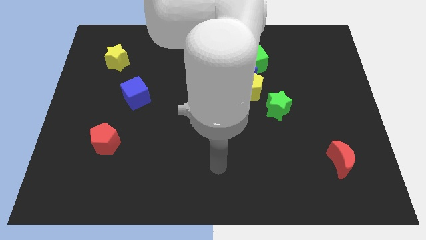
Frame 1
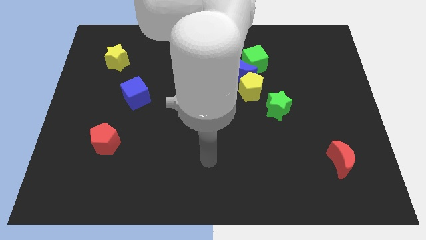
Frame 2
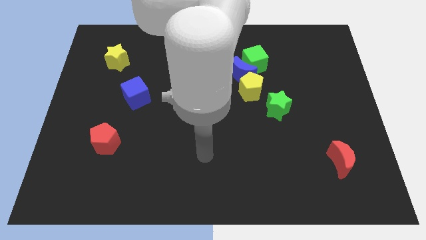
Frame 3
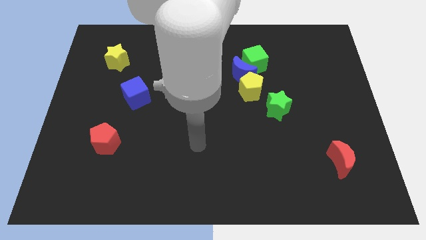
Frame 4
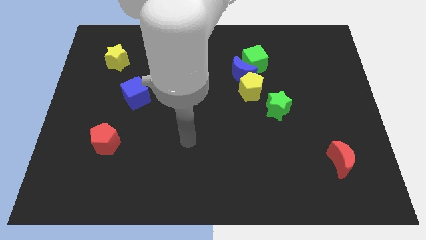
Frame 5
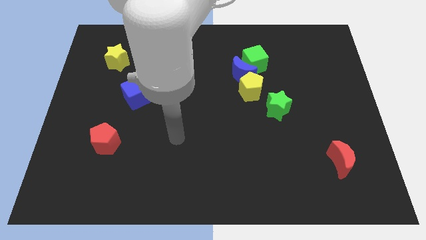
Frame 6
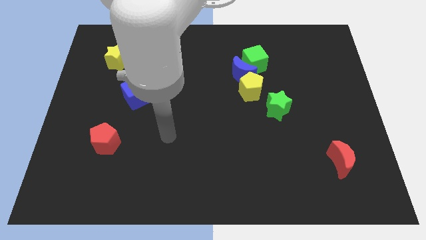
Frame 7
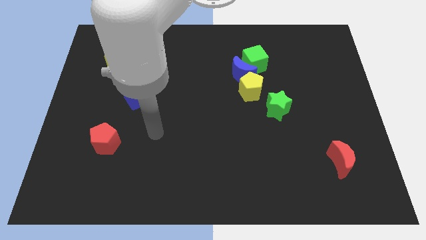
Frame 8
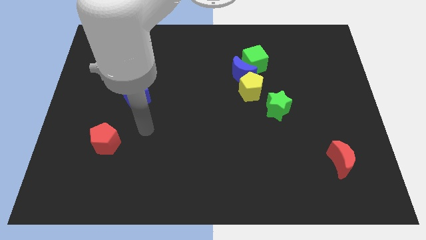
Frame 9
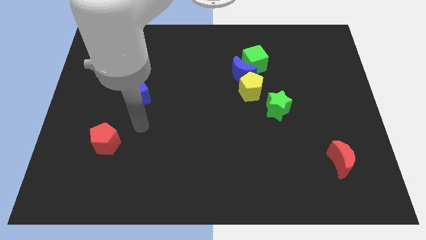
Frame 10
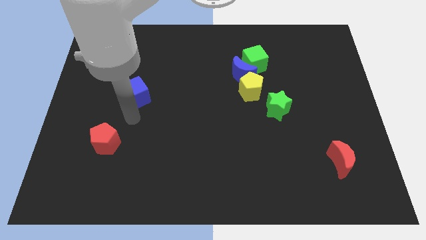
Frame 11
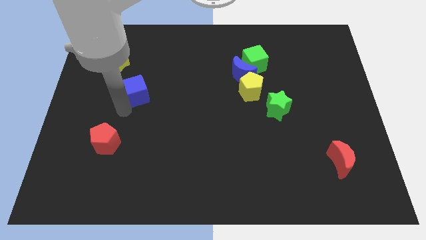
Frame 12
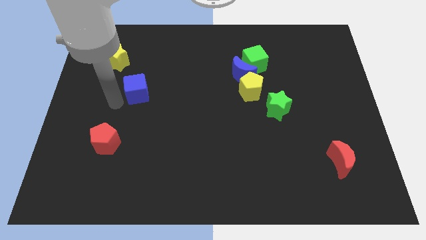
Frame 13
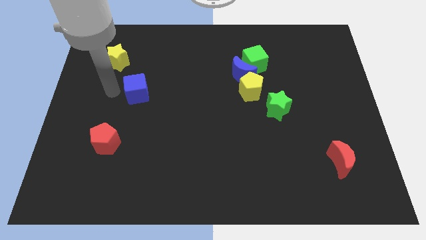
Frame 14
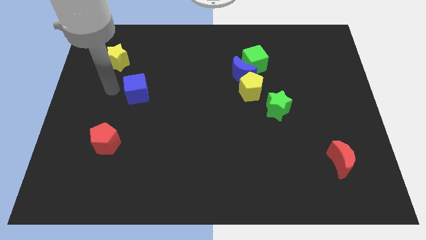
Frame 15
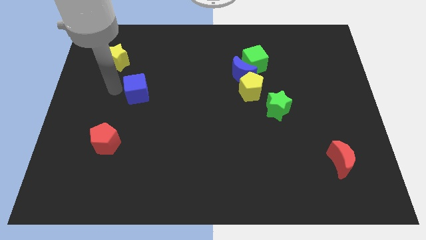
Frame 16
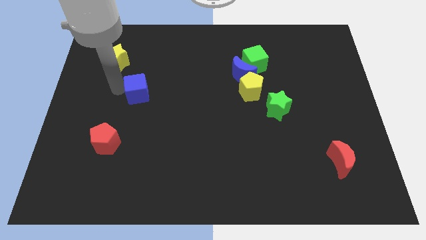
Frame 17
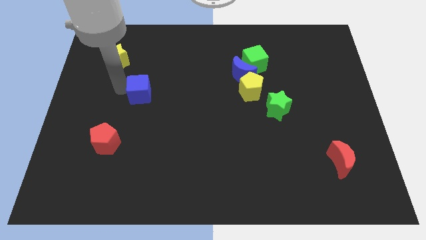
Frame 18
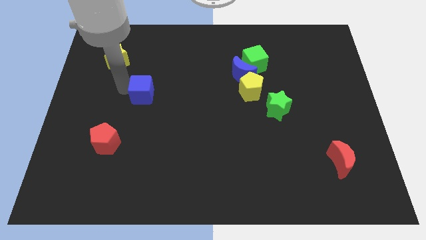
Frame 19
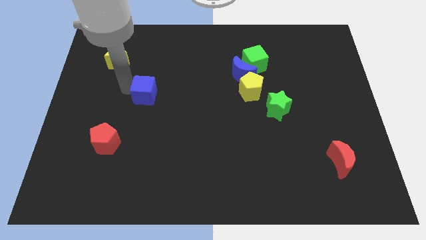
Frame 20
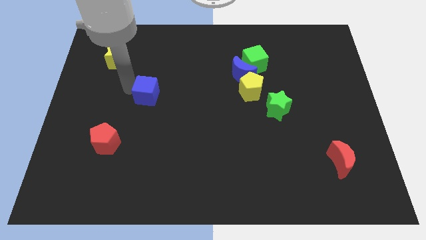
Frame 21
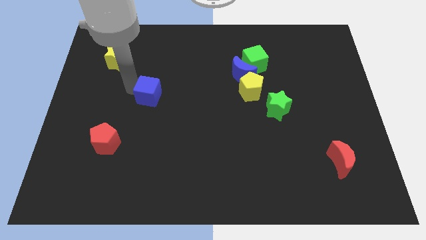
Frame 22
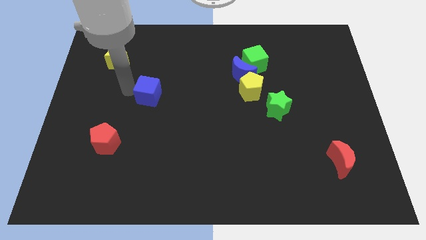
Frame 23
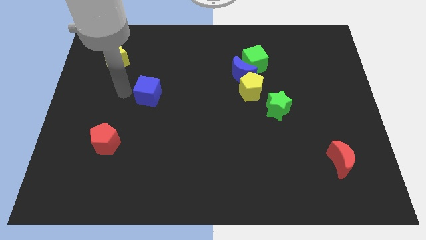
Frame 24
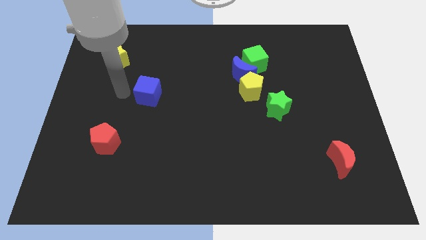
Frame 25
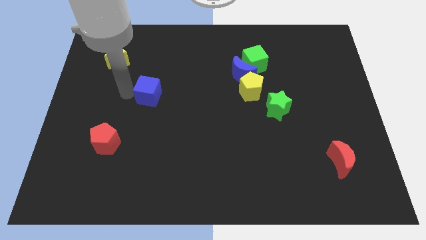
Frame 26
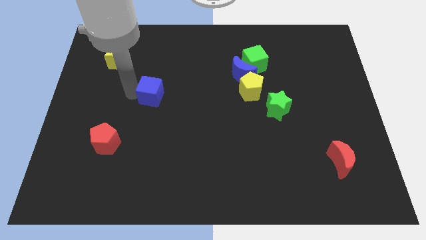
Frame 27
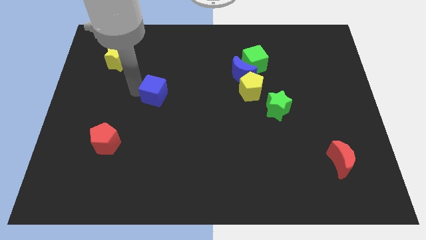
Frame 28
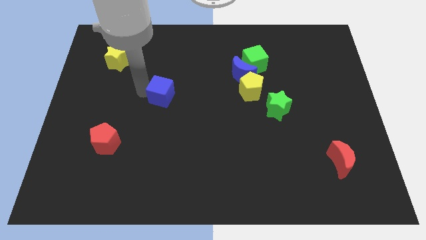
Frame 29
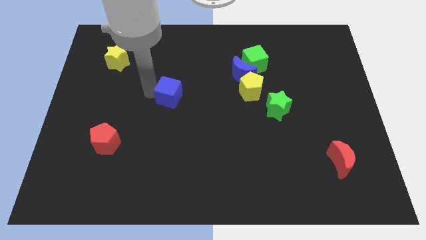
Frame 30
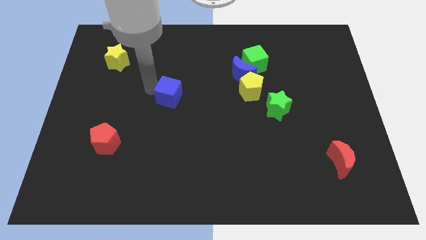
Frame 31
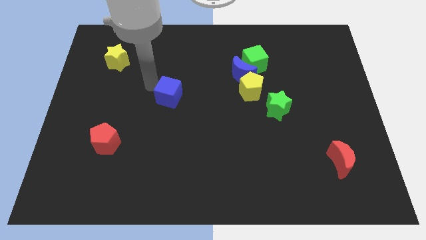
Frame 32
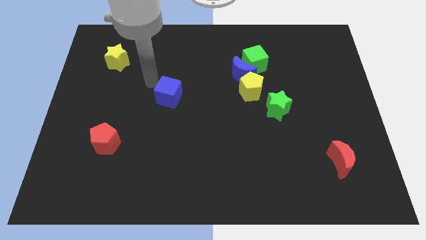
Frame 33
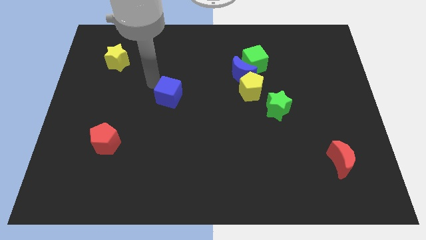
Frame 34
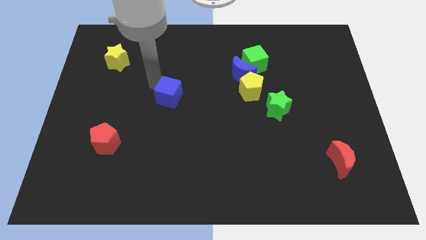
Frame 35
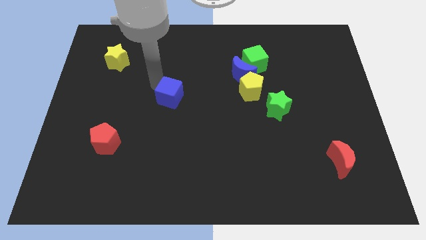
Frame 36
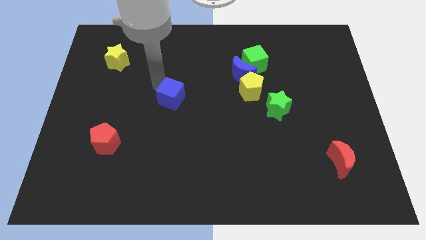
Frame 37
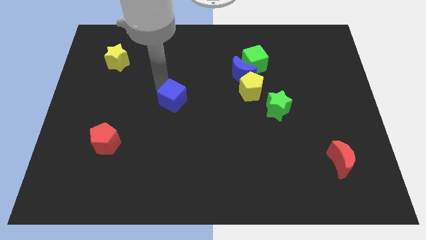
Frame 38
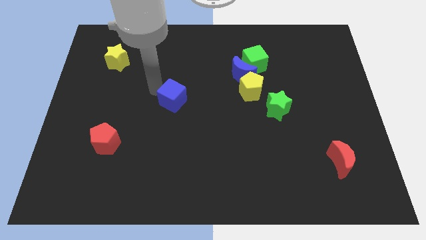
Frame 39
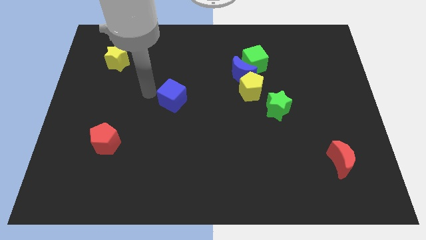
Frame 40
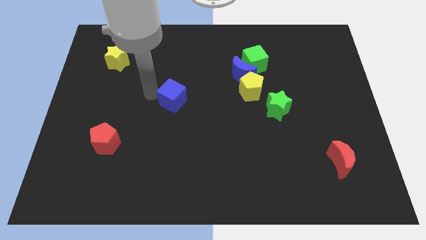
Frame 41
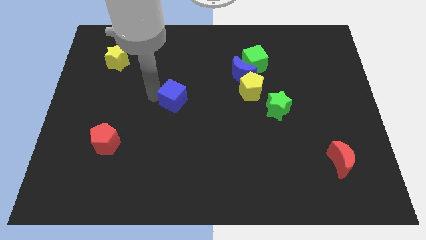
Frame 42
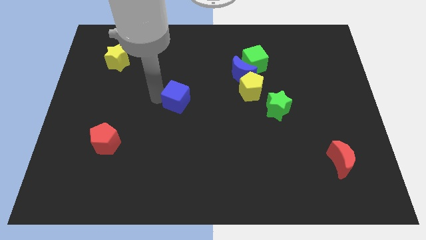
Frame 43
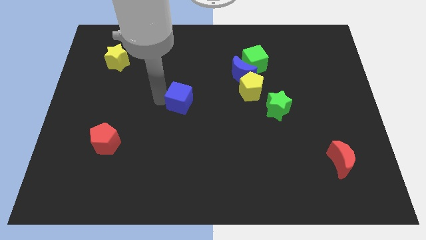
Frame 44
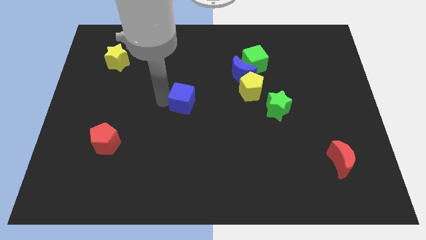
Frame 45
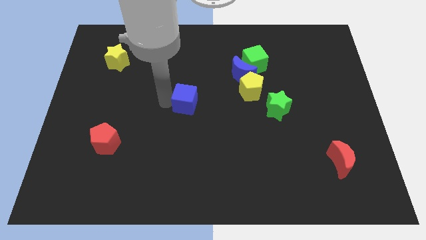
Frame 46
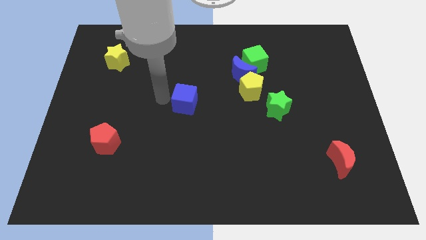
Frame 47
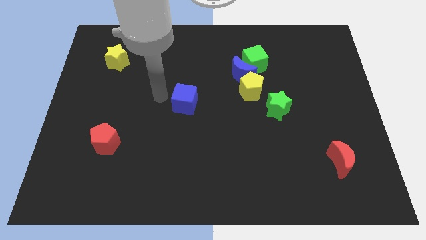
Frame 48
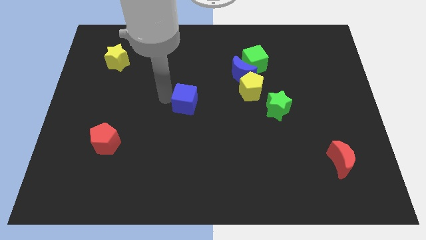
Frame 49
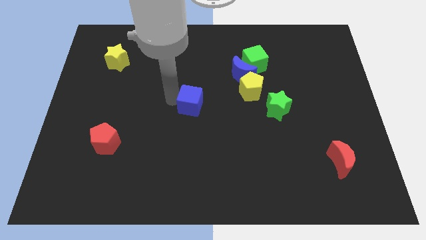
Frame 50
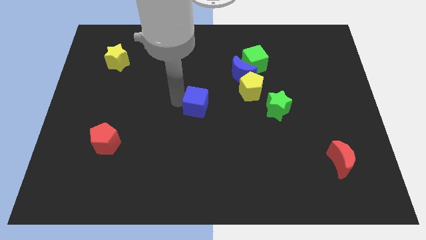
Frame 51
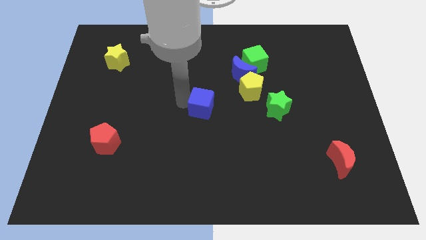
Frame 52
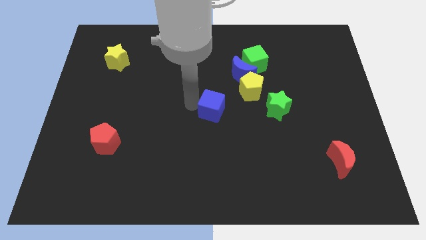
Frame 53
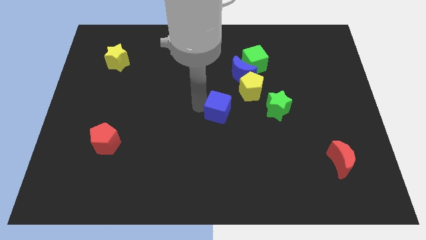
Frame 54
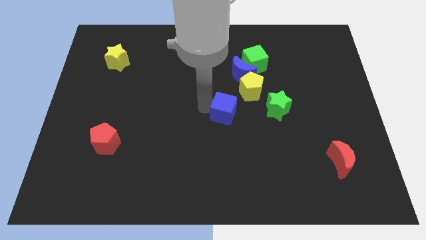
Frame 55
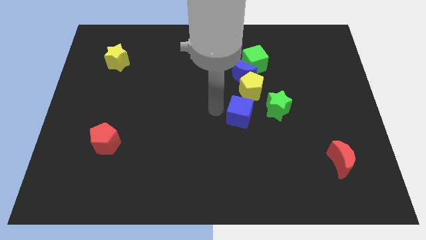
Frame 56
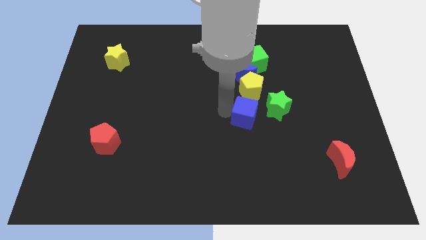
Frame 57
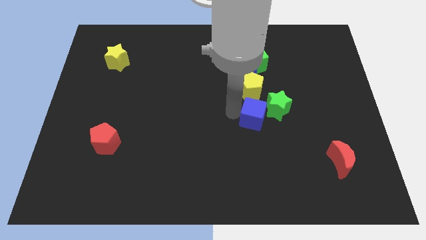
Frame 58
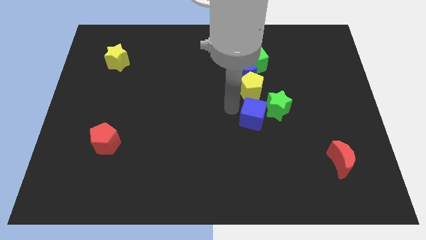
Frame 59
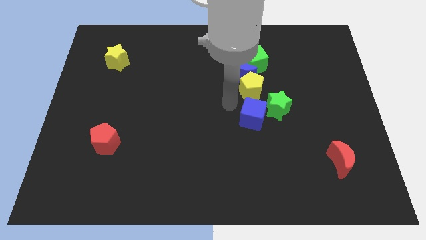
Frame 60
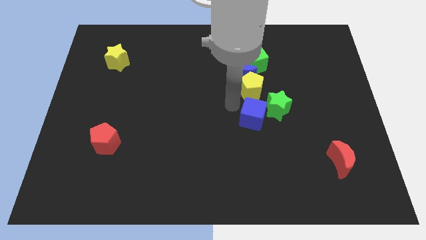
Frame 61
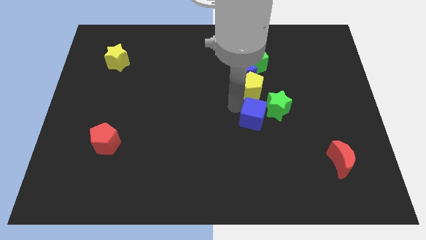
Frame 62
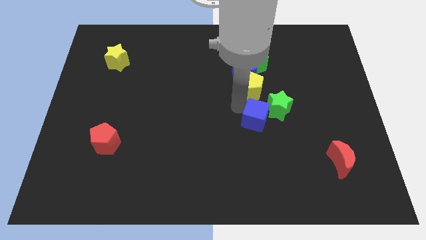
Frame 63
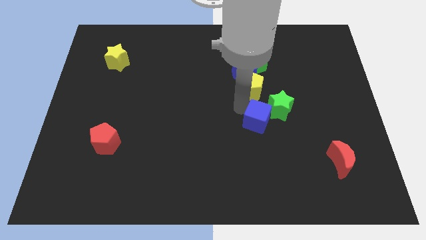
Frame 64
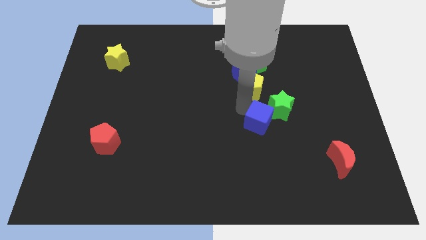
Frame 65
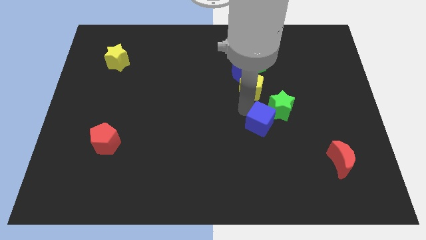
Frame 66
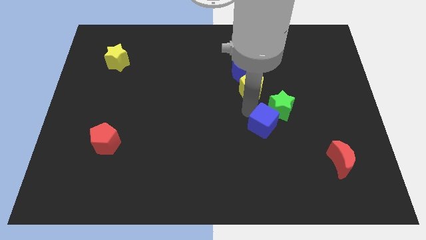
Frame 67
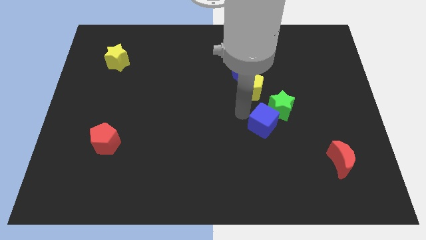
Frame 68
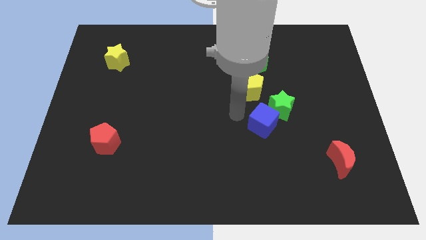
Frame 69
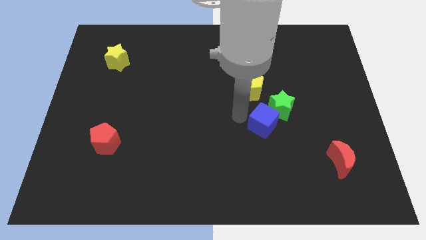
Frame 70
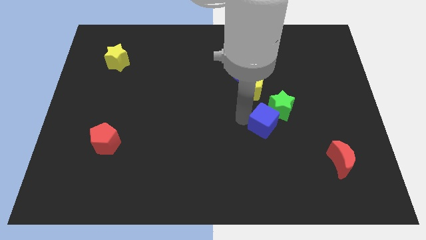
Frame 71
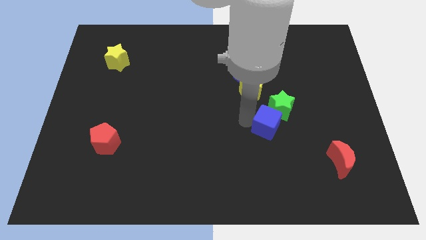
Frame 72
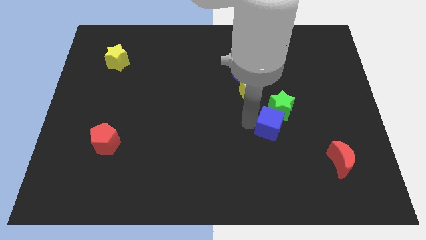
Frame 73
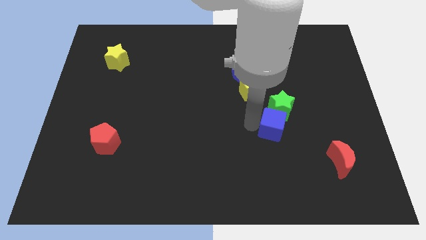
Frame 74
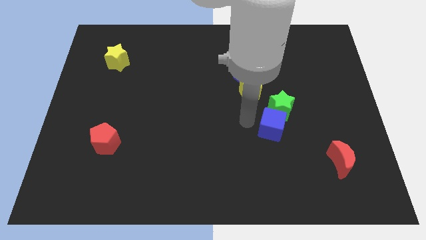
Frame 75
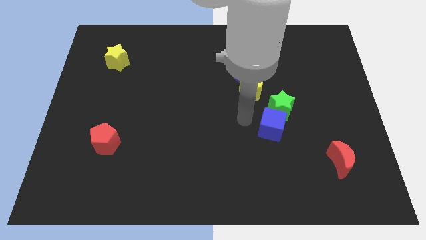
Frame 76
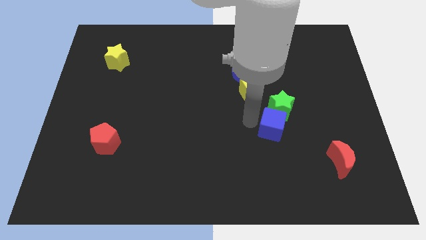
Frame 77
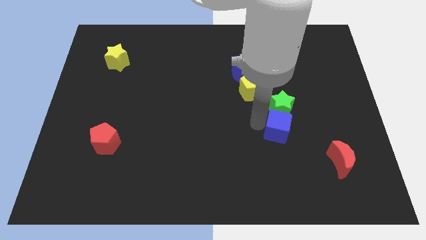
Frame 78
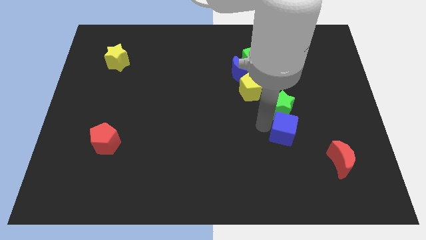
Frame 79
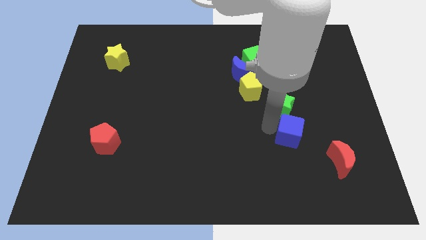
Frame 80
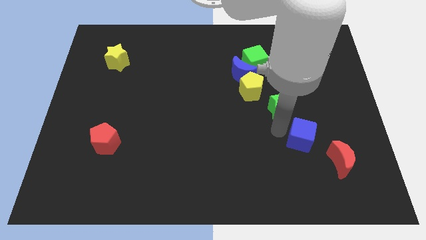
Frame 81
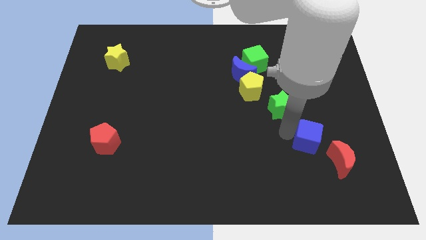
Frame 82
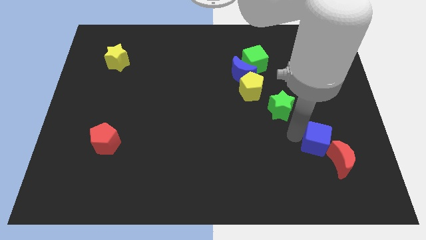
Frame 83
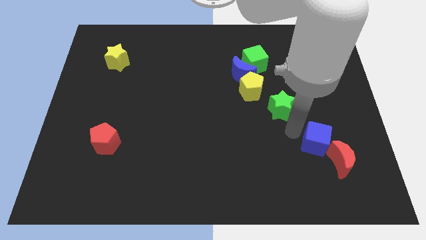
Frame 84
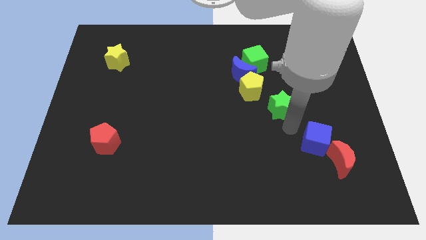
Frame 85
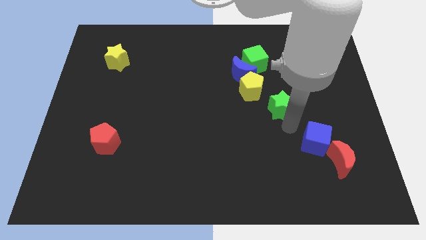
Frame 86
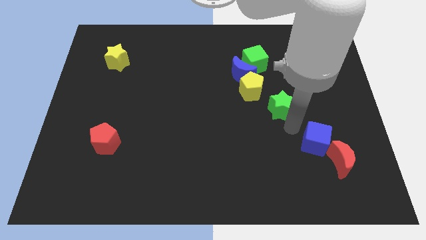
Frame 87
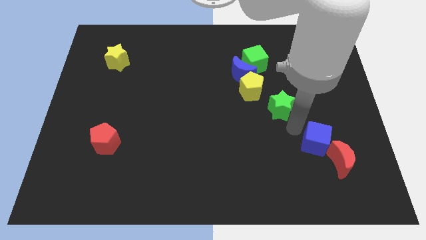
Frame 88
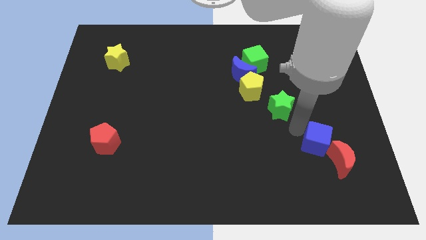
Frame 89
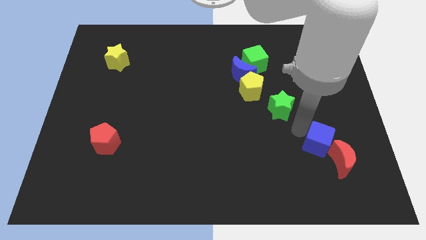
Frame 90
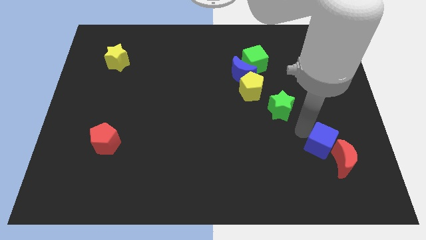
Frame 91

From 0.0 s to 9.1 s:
move the blue cube close to the red moon
